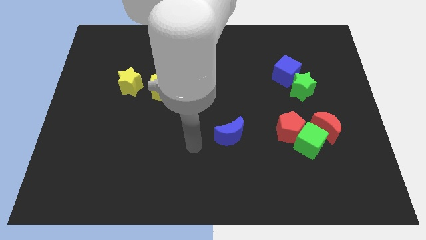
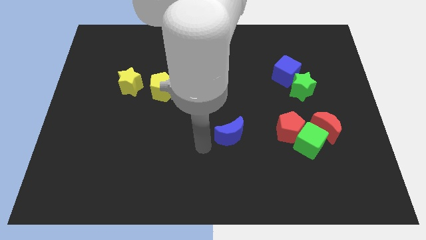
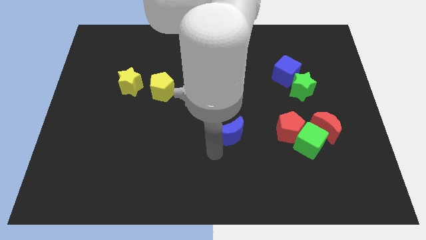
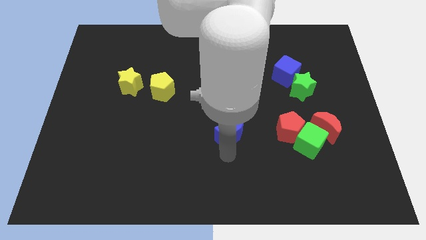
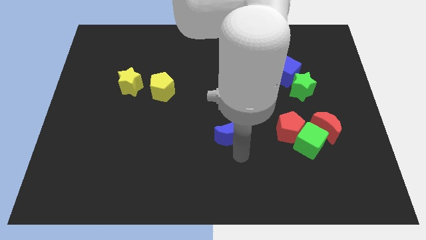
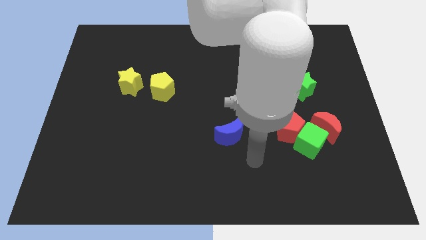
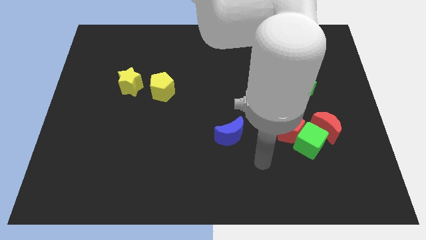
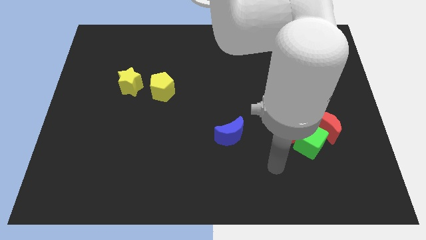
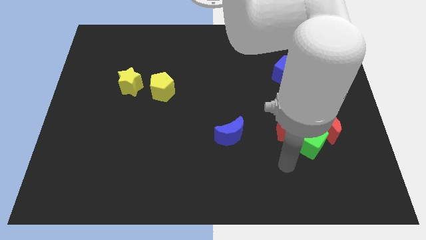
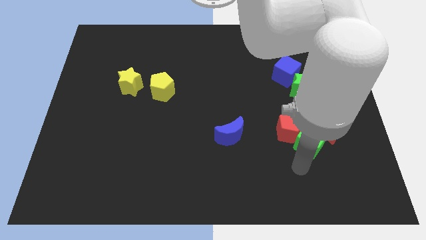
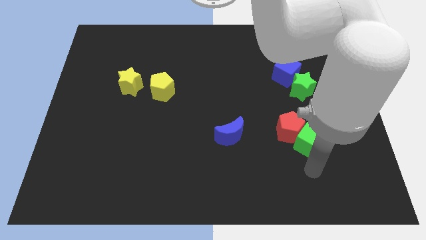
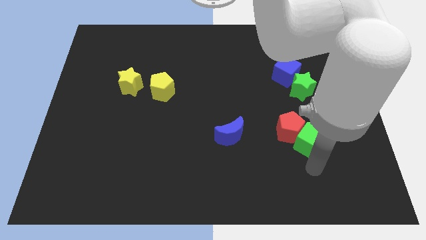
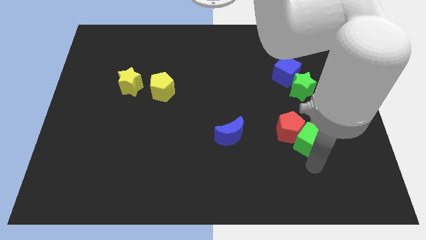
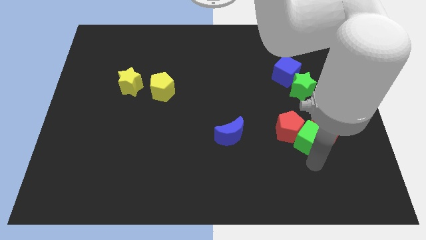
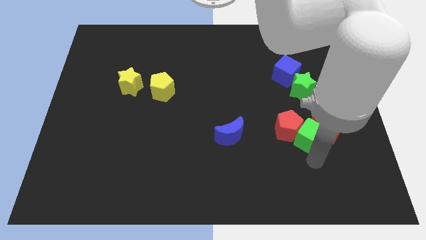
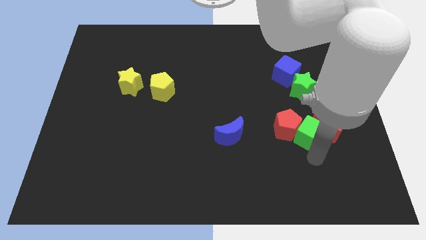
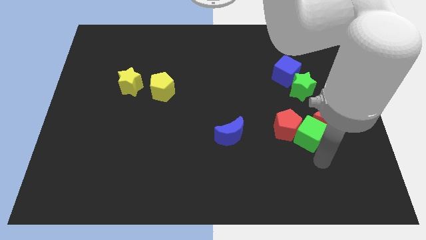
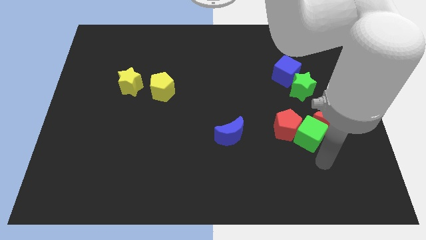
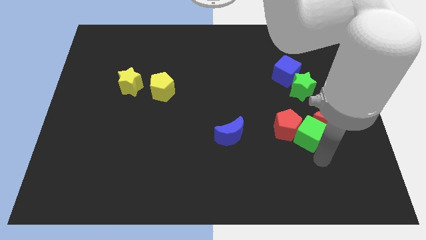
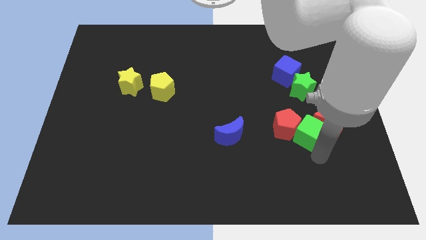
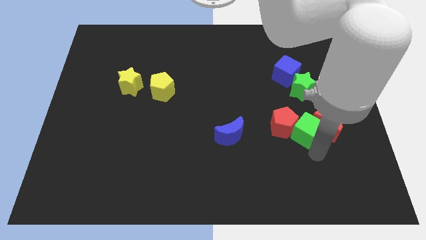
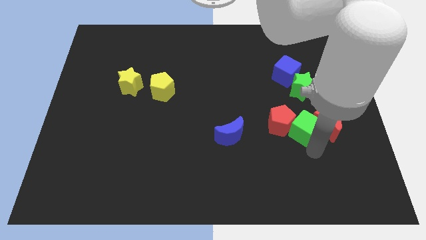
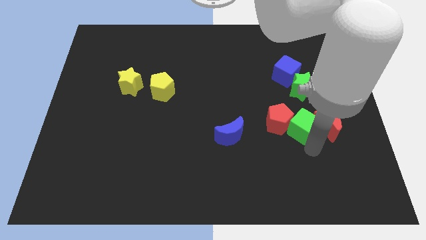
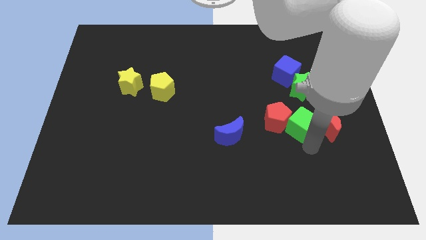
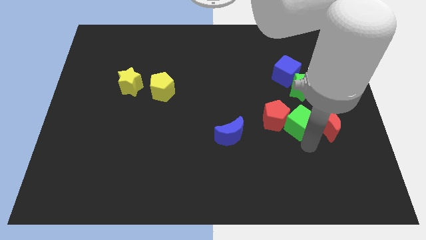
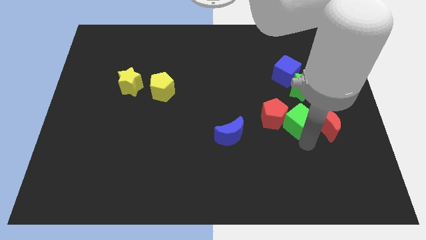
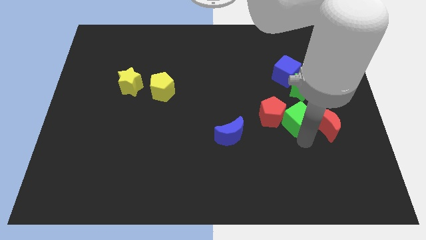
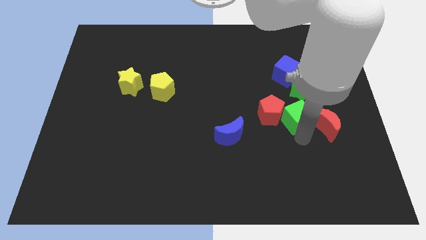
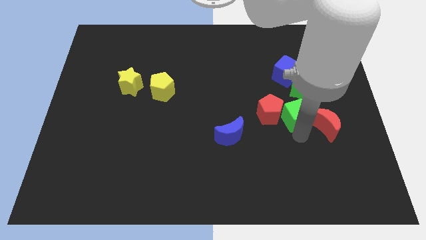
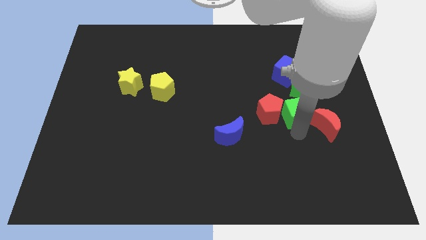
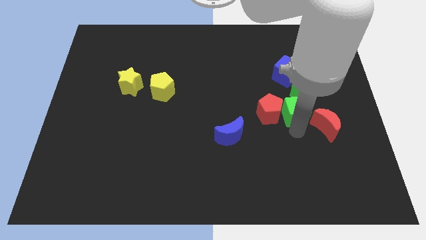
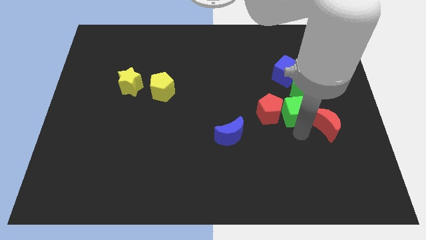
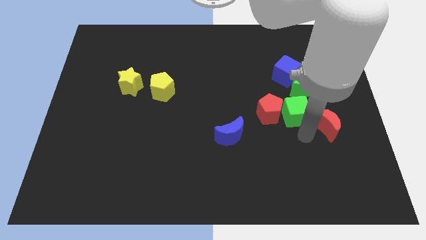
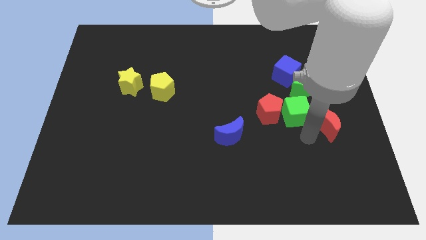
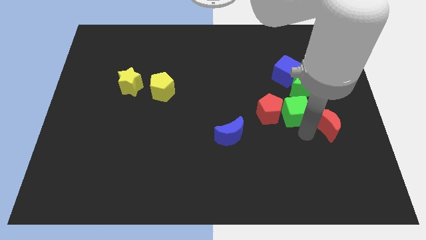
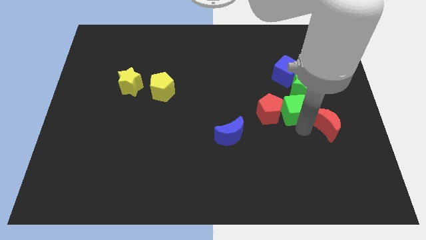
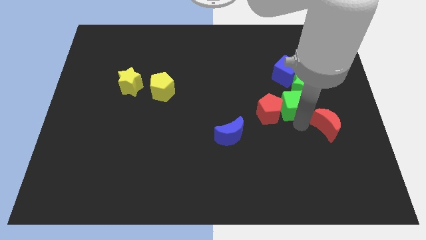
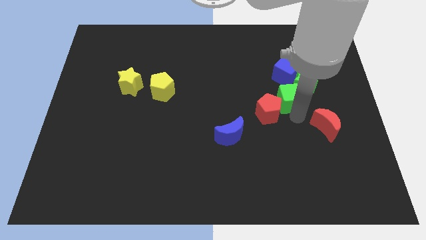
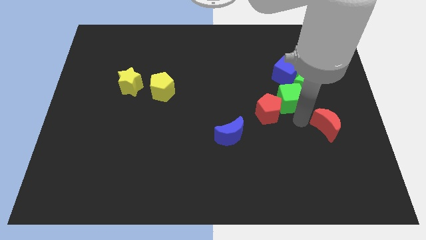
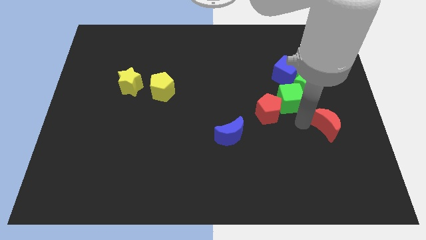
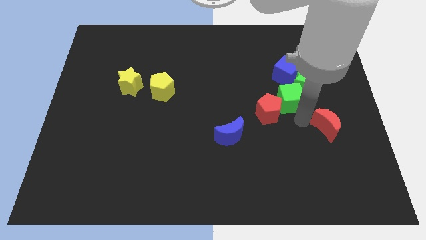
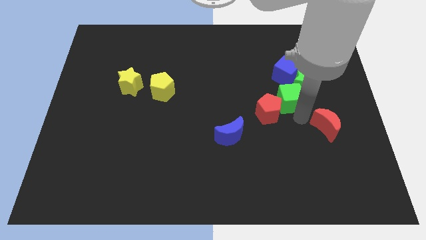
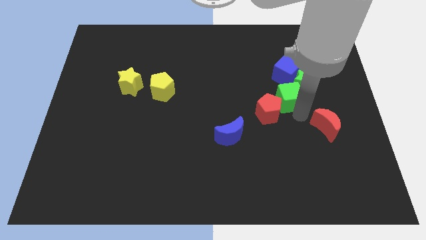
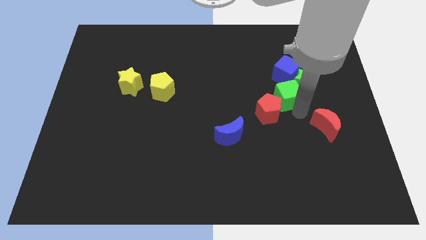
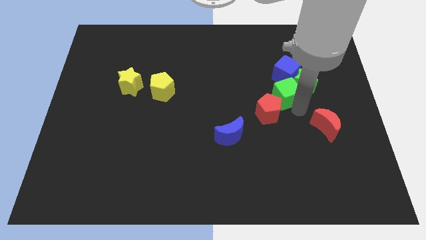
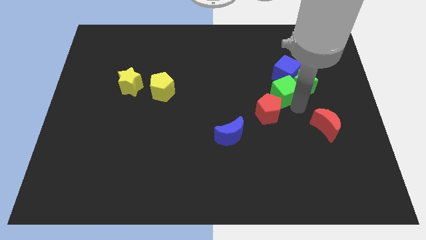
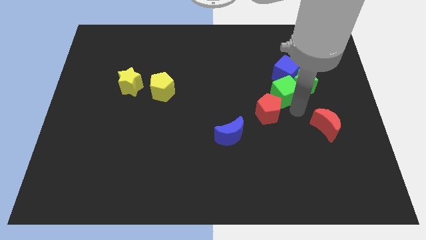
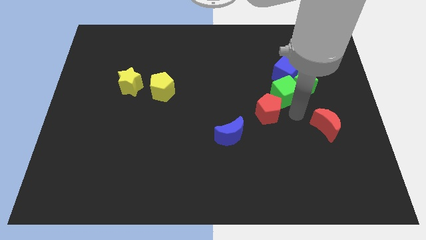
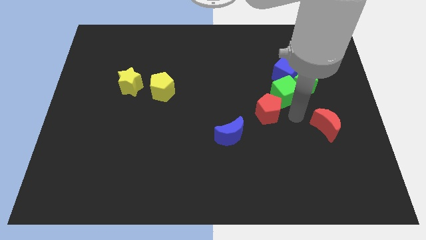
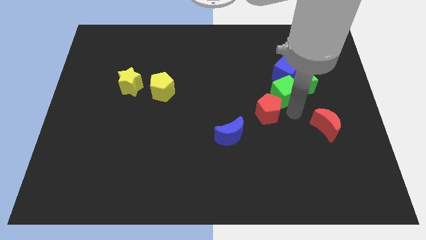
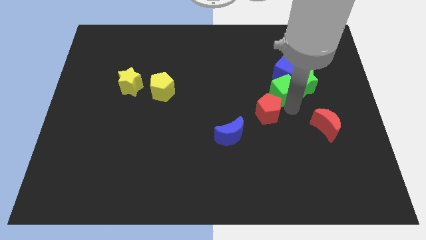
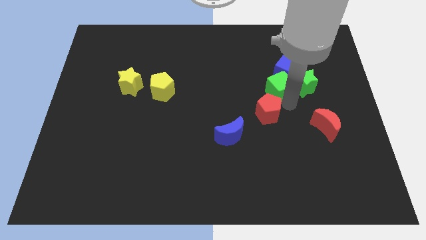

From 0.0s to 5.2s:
slide the green cube next to the blue cube

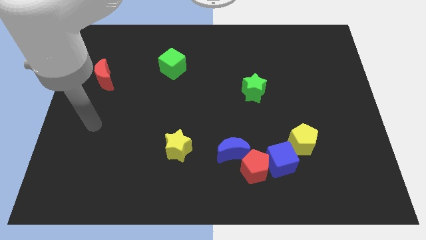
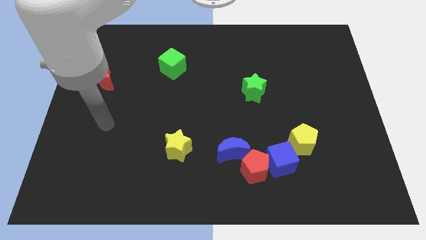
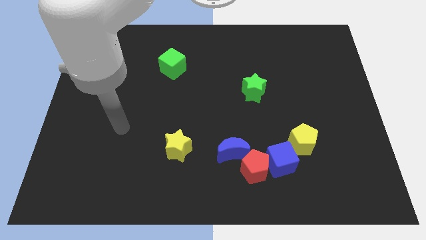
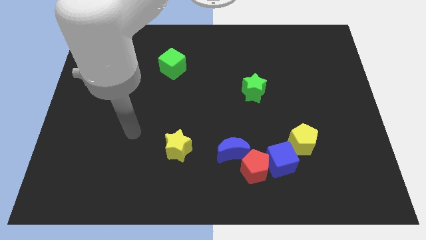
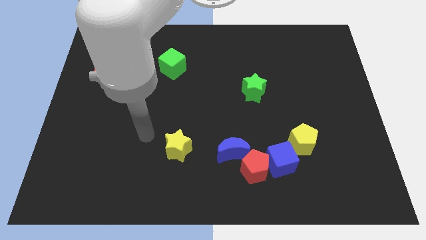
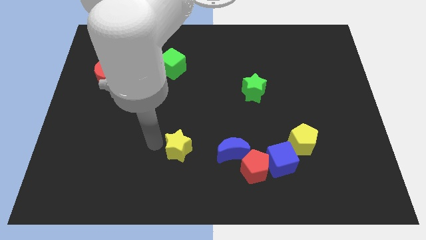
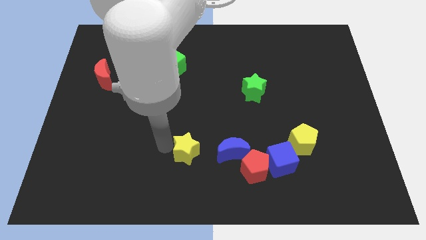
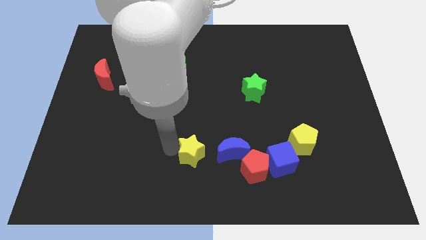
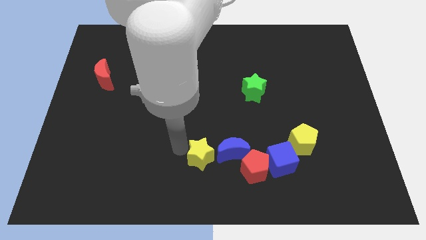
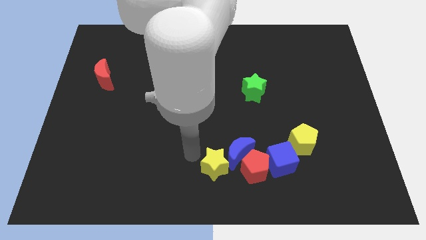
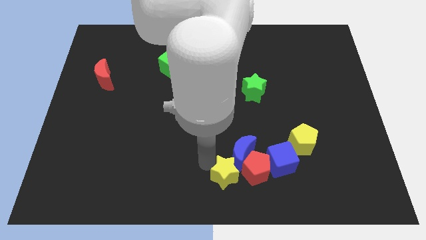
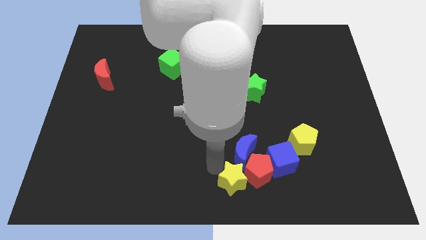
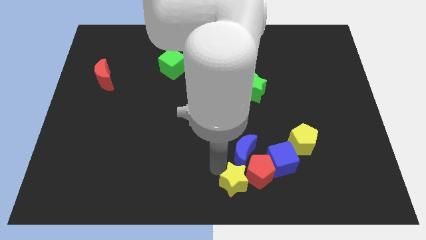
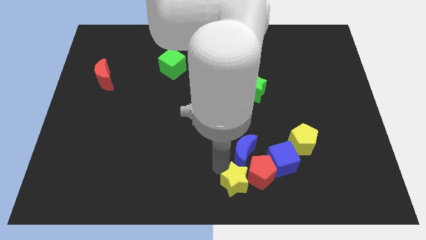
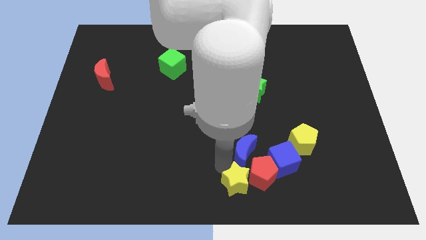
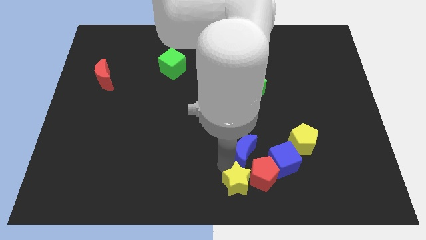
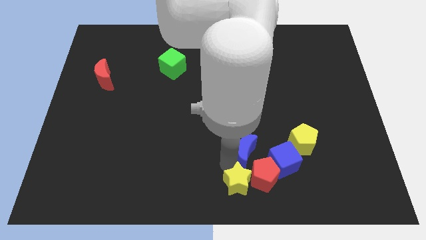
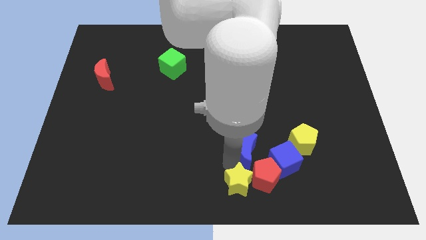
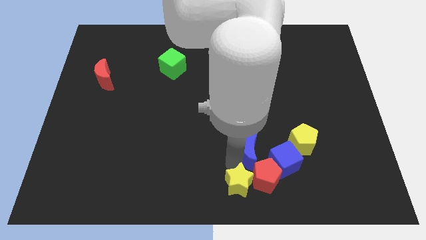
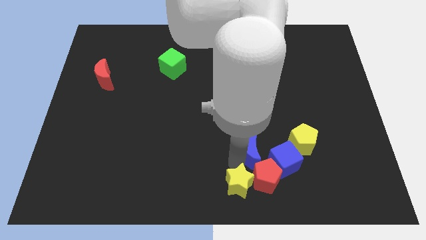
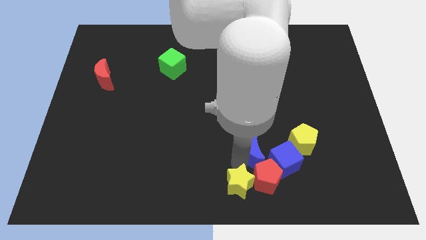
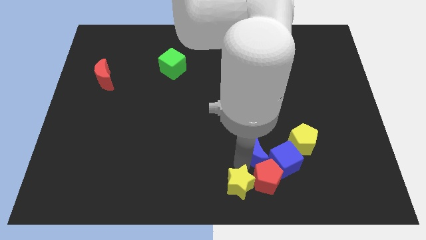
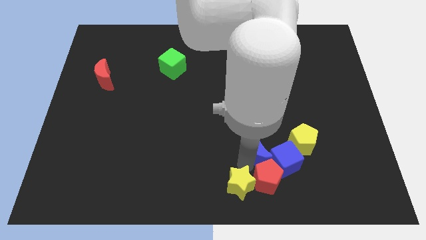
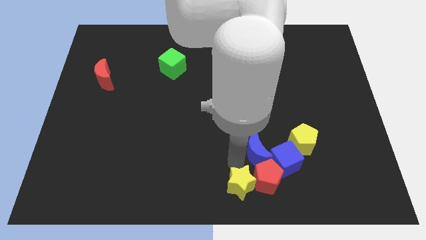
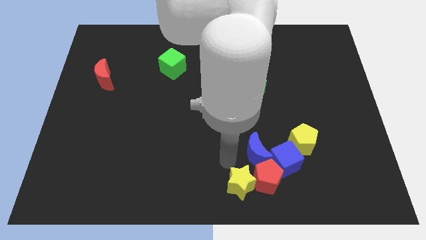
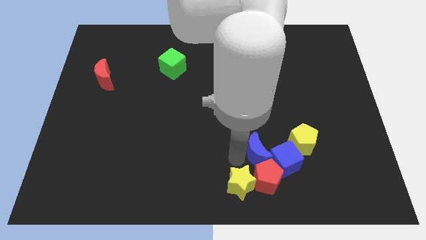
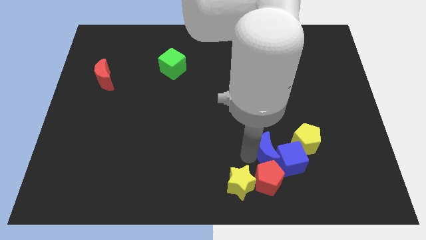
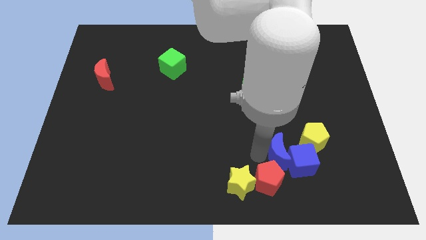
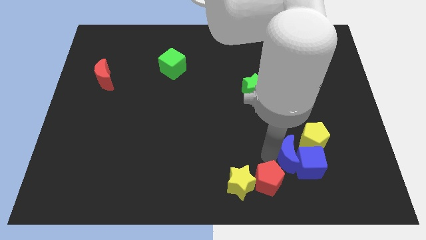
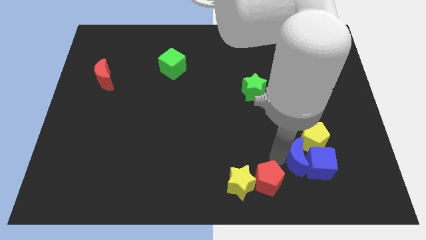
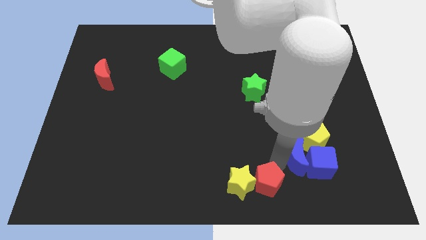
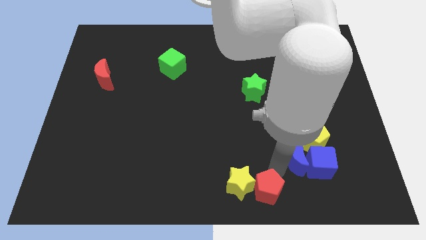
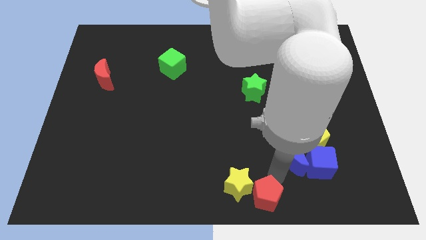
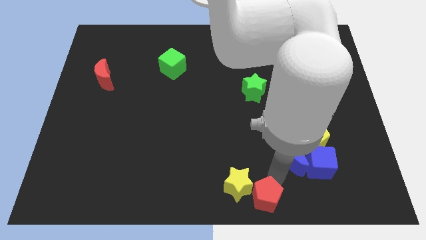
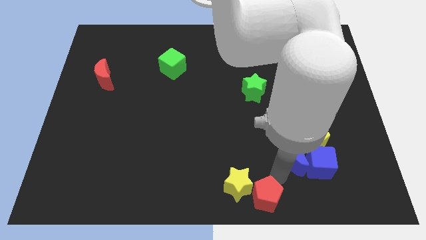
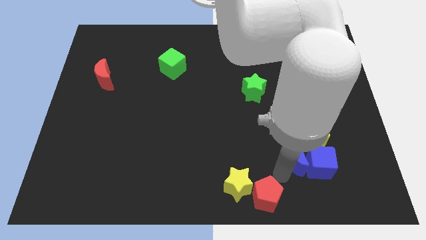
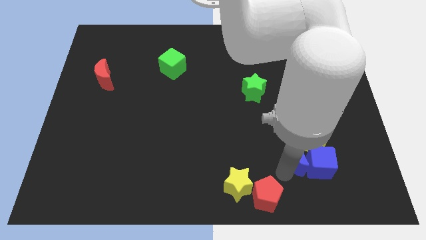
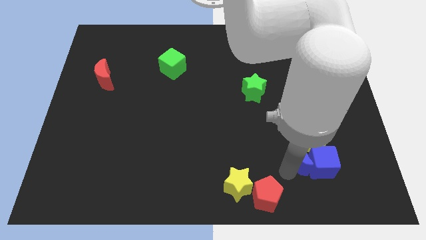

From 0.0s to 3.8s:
push the blue moon to the yellow pentagon
